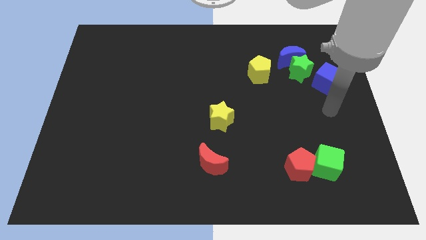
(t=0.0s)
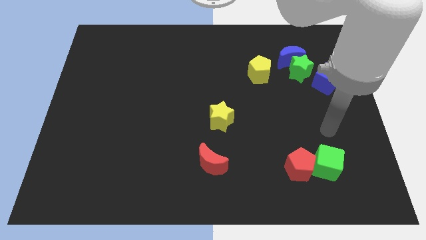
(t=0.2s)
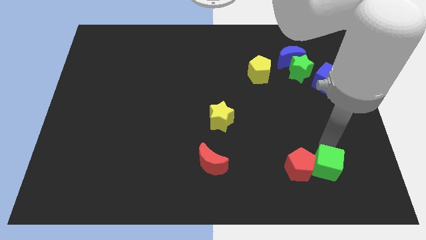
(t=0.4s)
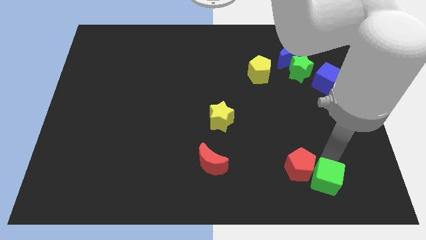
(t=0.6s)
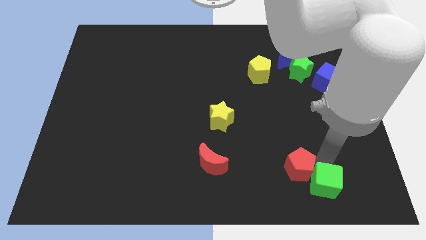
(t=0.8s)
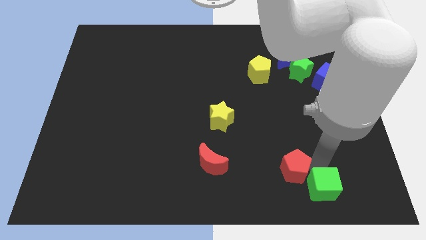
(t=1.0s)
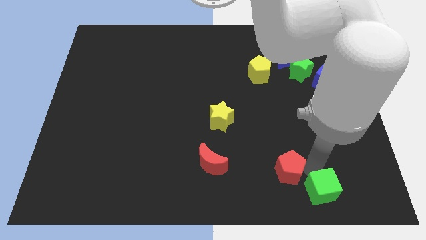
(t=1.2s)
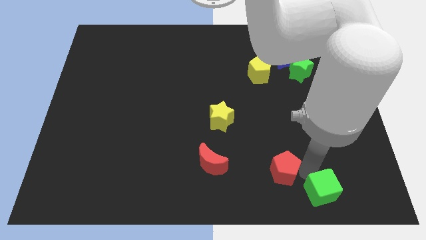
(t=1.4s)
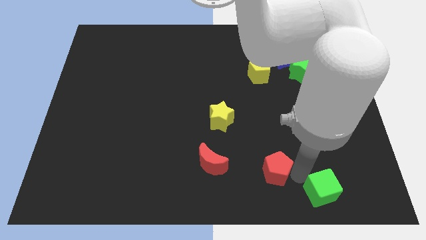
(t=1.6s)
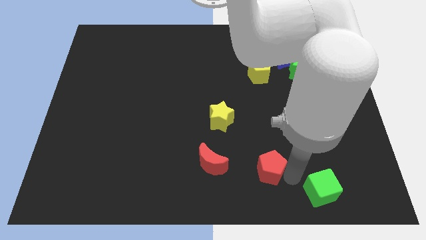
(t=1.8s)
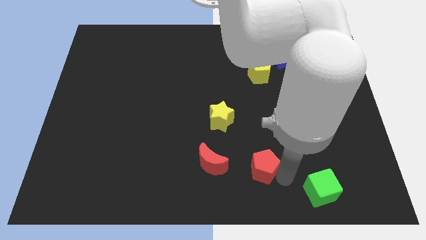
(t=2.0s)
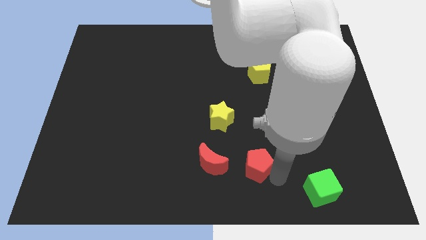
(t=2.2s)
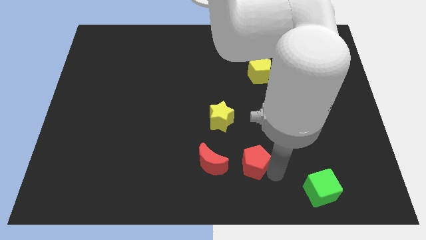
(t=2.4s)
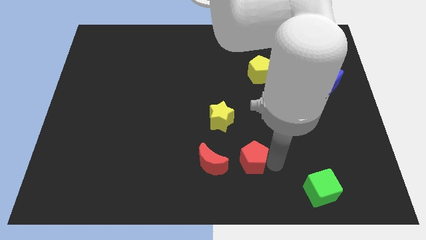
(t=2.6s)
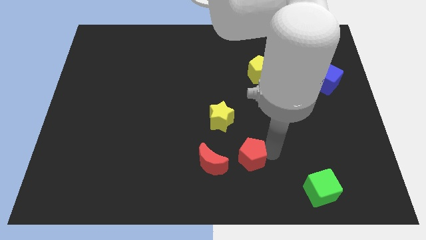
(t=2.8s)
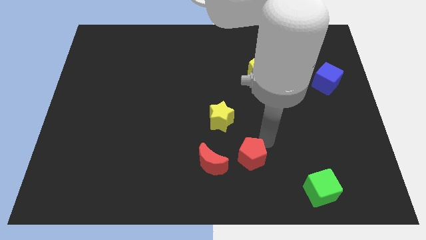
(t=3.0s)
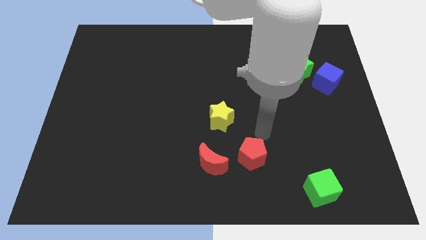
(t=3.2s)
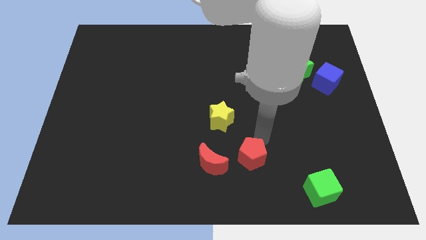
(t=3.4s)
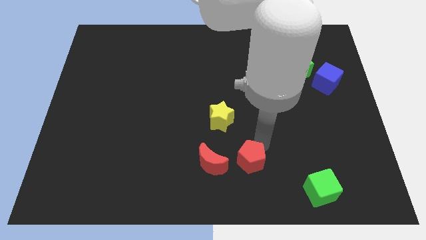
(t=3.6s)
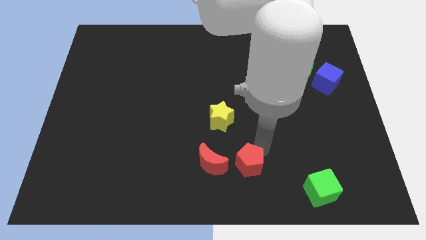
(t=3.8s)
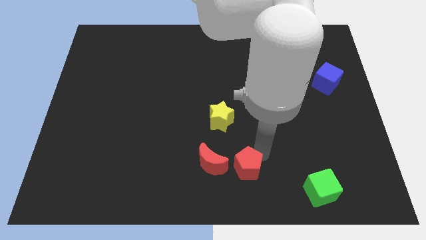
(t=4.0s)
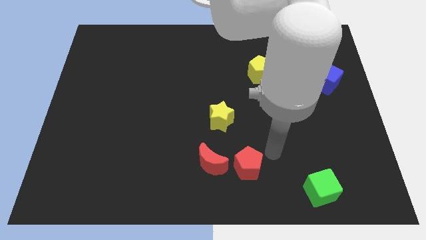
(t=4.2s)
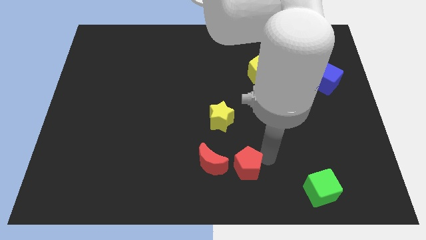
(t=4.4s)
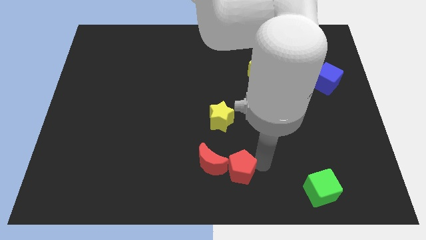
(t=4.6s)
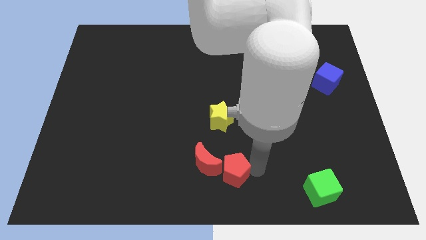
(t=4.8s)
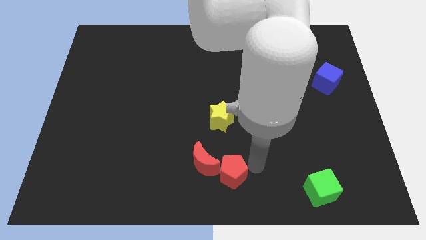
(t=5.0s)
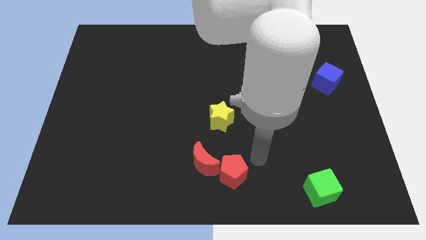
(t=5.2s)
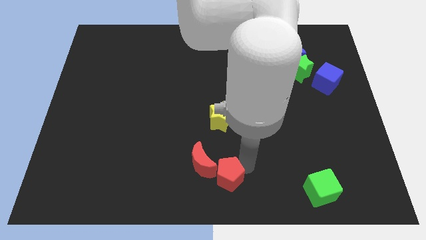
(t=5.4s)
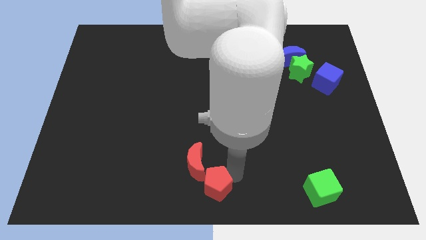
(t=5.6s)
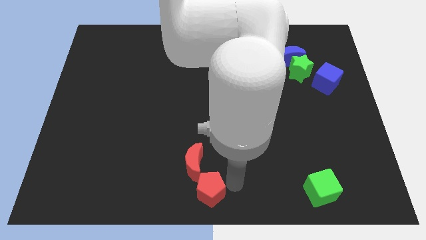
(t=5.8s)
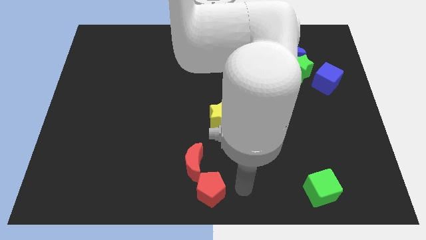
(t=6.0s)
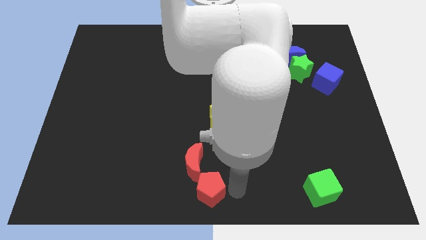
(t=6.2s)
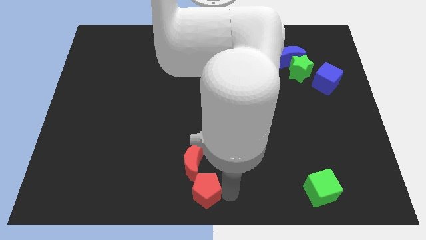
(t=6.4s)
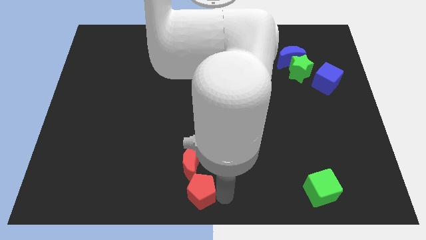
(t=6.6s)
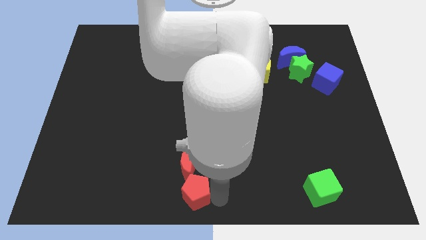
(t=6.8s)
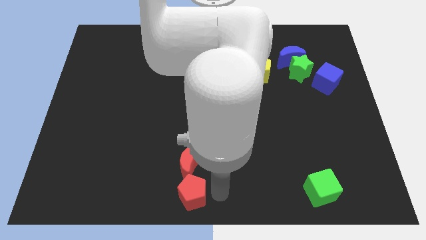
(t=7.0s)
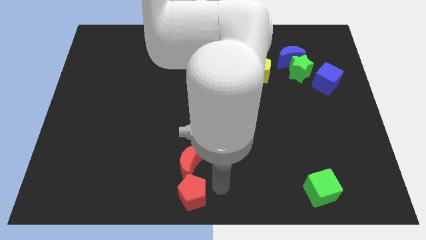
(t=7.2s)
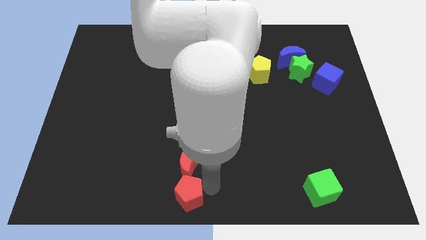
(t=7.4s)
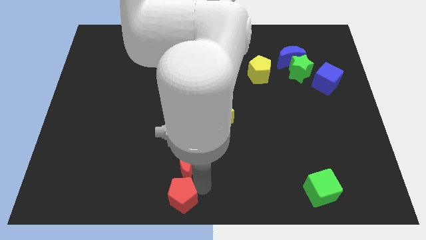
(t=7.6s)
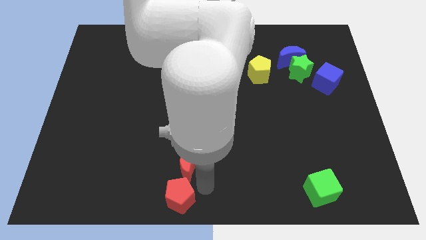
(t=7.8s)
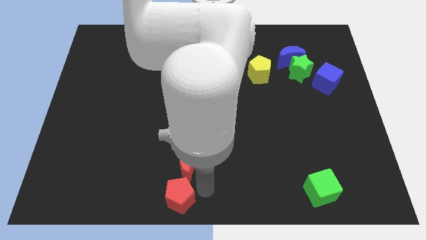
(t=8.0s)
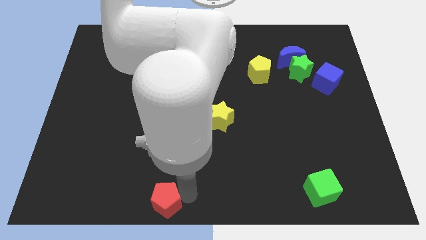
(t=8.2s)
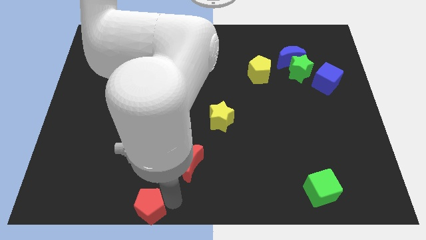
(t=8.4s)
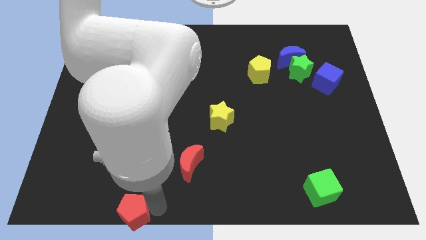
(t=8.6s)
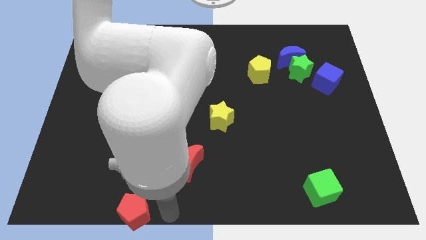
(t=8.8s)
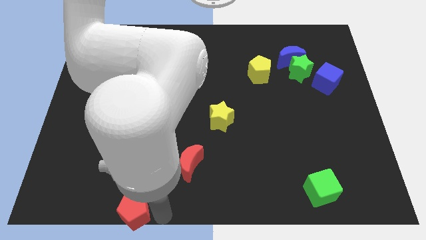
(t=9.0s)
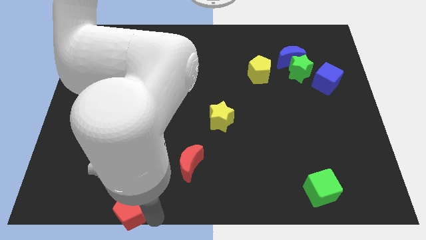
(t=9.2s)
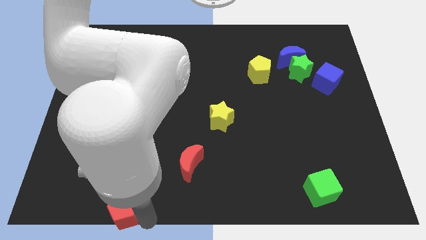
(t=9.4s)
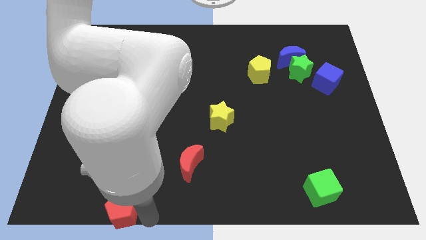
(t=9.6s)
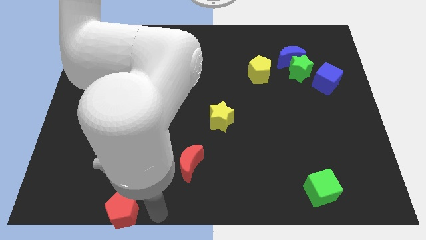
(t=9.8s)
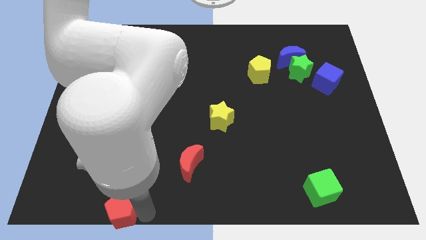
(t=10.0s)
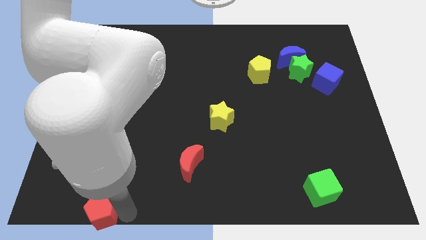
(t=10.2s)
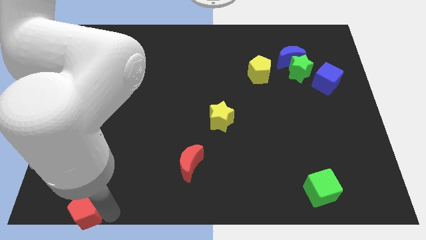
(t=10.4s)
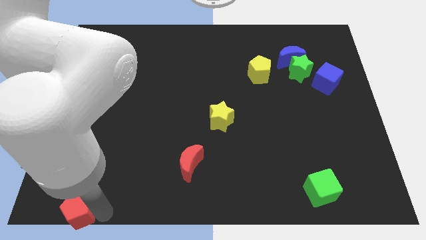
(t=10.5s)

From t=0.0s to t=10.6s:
move the red pentagon to the lower left corner

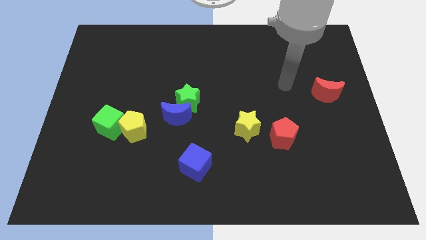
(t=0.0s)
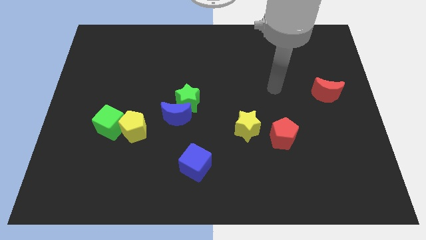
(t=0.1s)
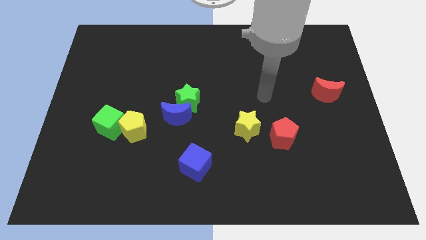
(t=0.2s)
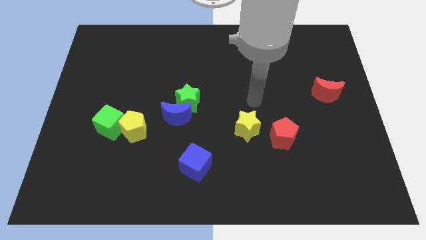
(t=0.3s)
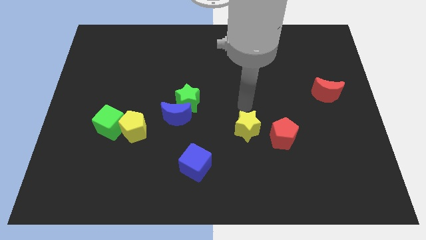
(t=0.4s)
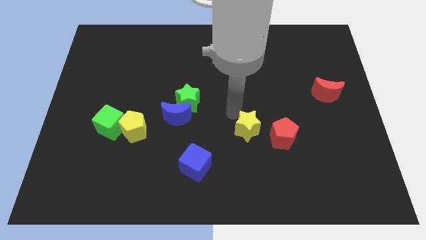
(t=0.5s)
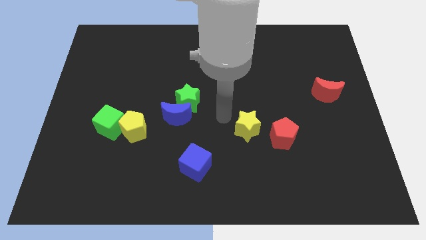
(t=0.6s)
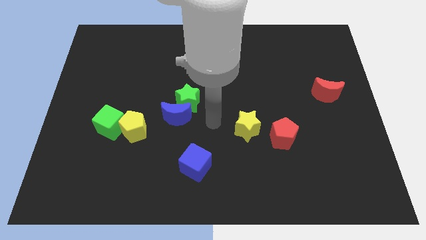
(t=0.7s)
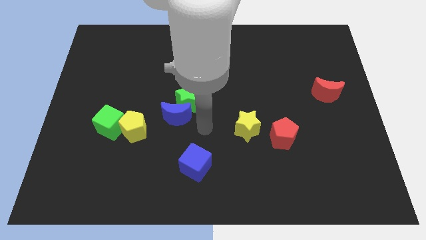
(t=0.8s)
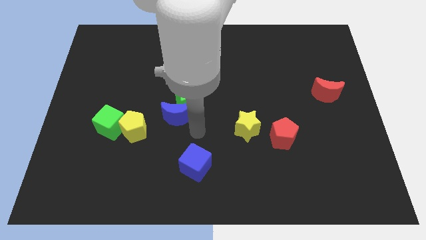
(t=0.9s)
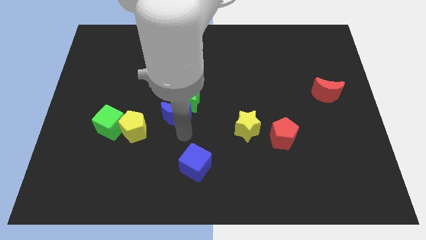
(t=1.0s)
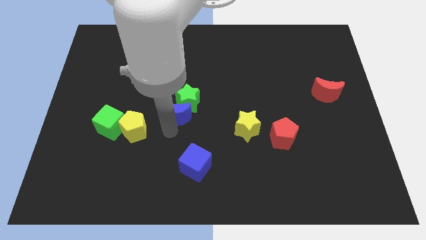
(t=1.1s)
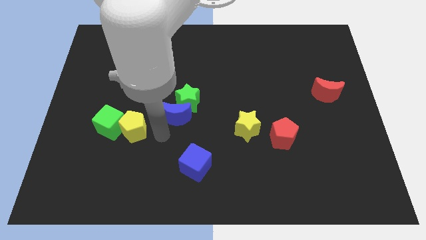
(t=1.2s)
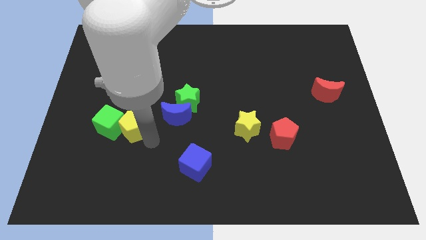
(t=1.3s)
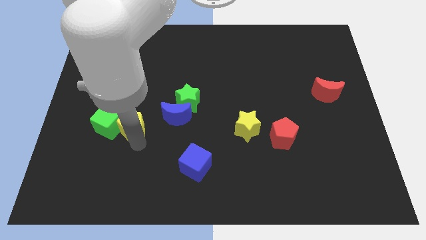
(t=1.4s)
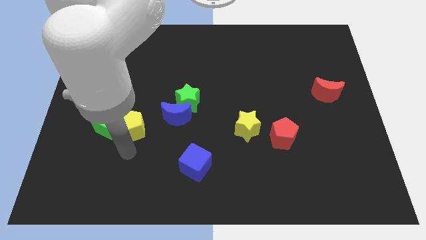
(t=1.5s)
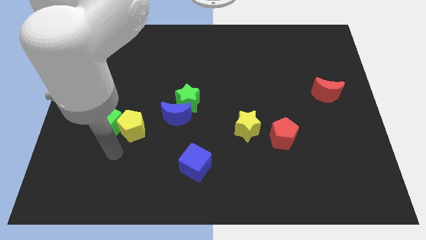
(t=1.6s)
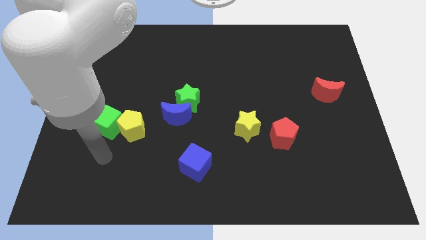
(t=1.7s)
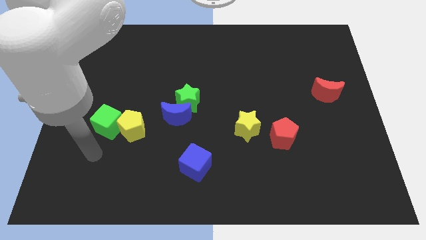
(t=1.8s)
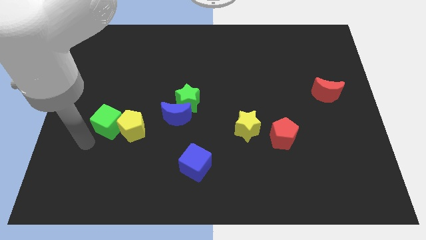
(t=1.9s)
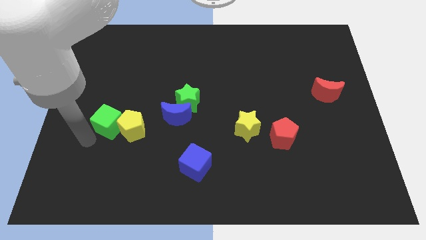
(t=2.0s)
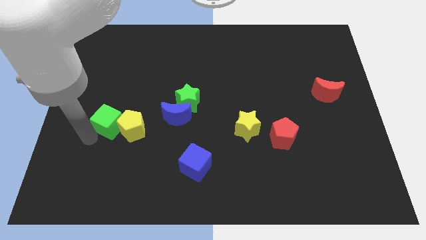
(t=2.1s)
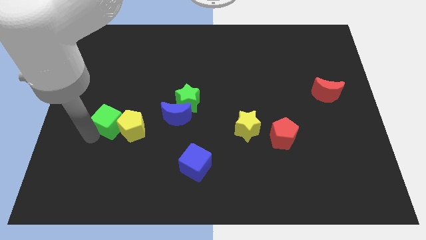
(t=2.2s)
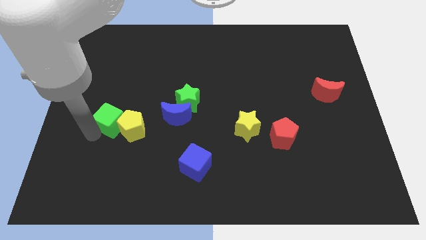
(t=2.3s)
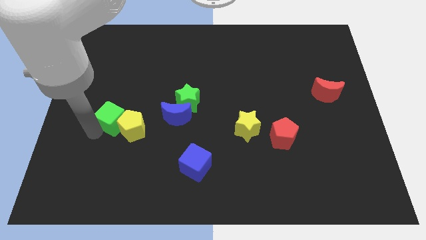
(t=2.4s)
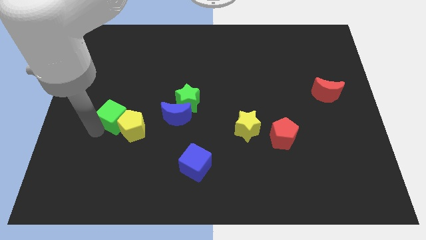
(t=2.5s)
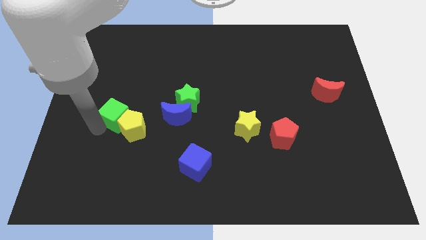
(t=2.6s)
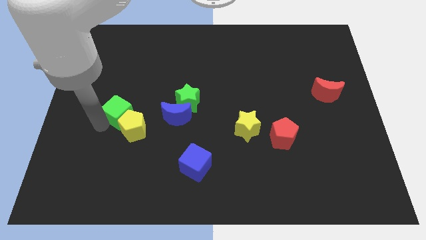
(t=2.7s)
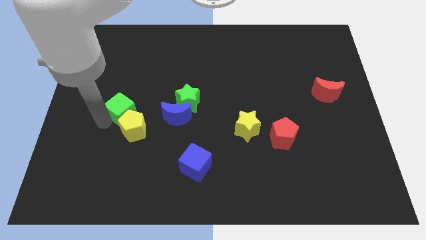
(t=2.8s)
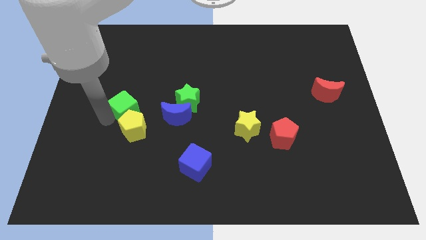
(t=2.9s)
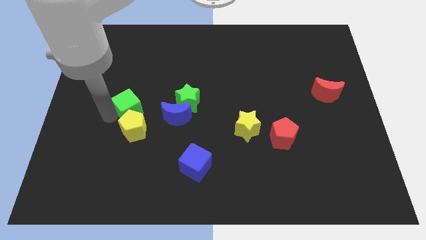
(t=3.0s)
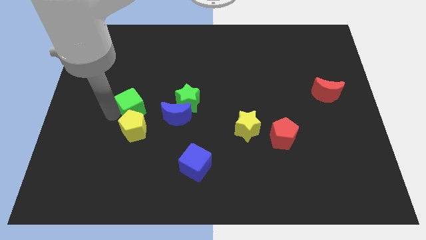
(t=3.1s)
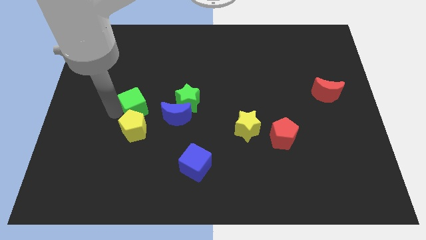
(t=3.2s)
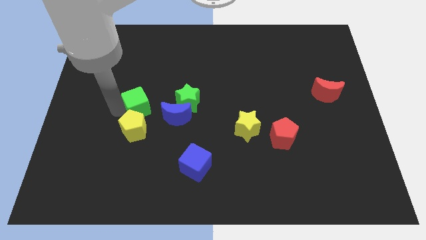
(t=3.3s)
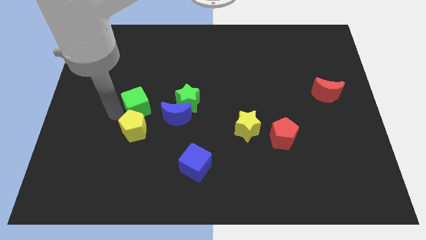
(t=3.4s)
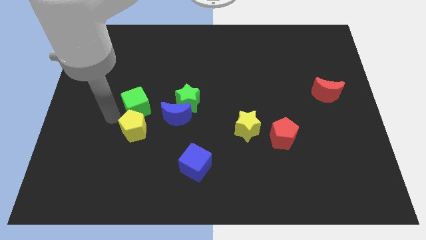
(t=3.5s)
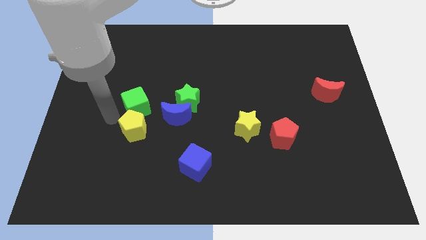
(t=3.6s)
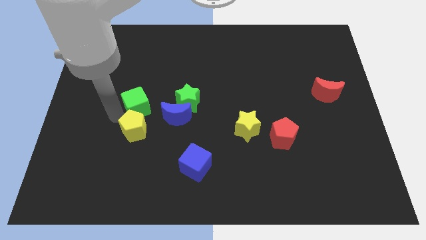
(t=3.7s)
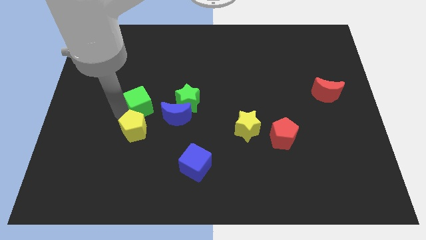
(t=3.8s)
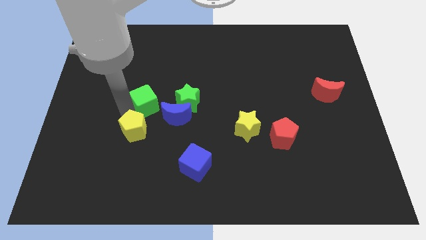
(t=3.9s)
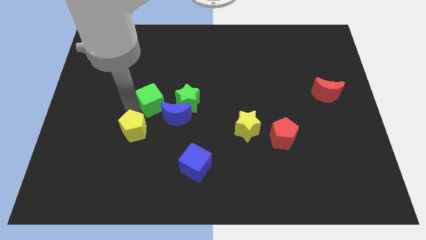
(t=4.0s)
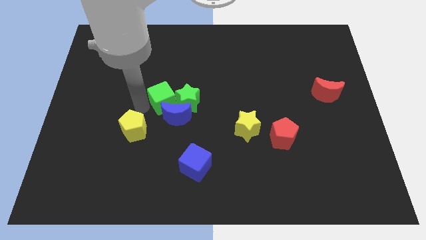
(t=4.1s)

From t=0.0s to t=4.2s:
push the green cube to the center of the board
